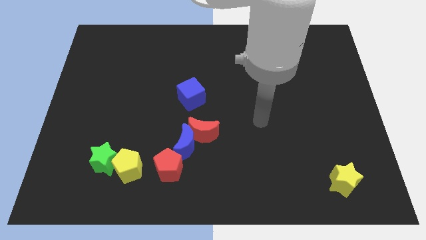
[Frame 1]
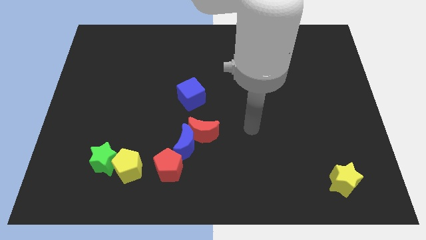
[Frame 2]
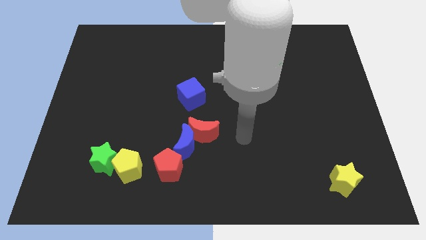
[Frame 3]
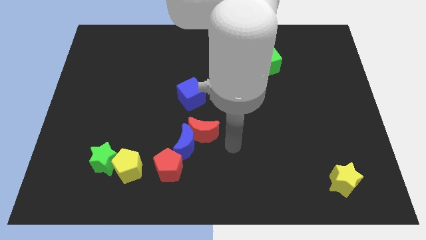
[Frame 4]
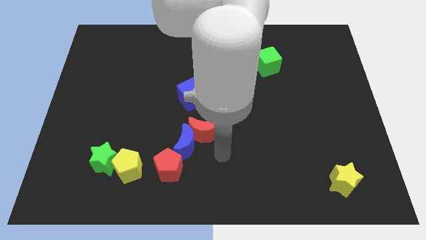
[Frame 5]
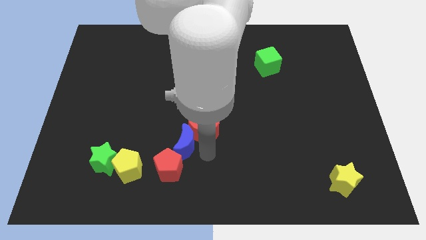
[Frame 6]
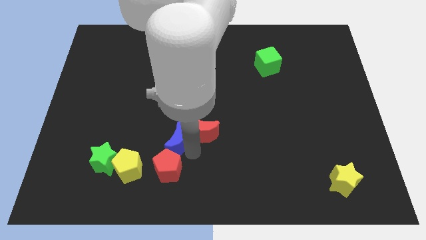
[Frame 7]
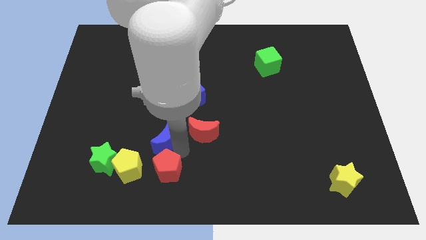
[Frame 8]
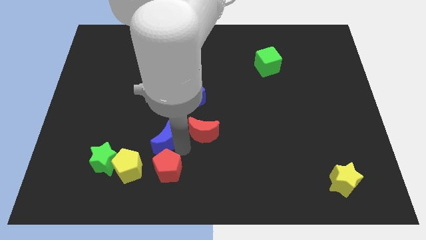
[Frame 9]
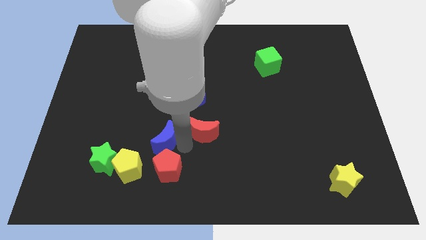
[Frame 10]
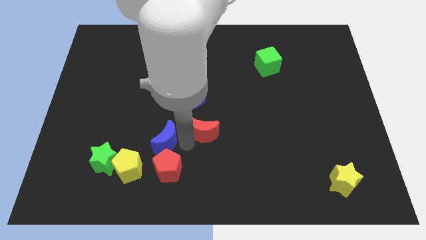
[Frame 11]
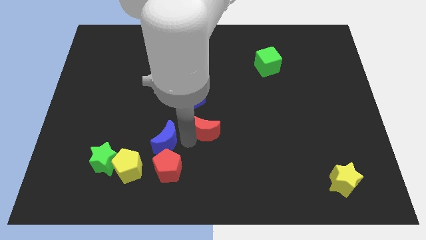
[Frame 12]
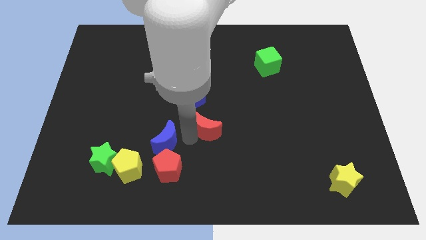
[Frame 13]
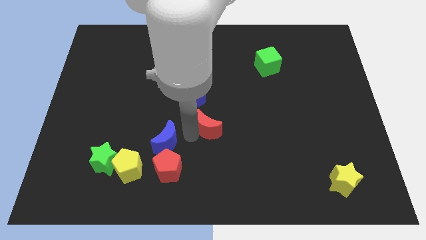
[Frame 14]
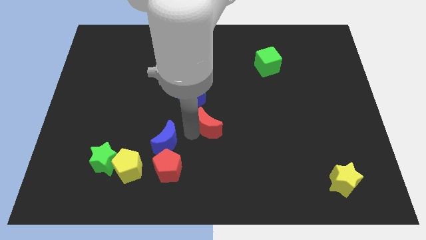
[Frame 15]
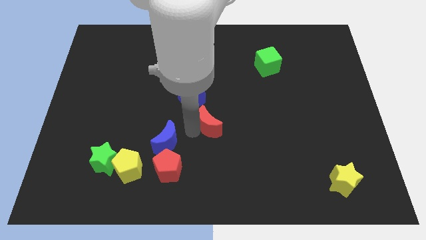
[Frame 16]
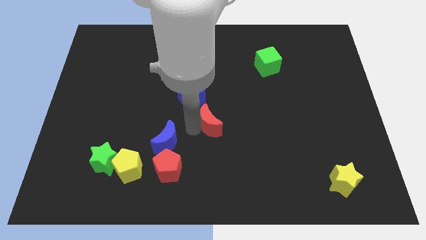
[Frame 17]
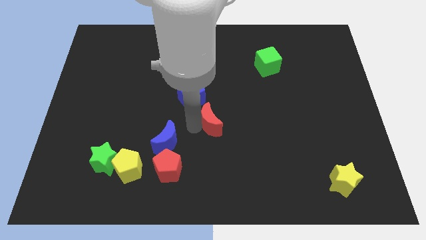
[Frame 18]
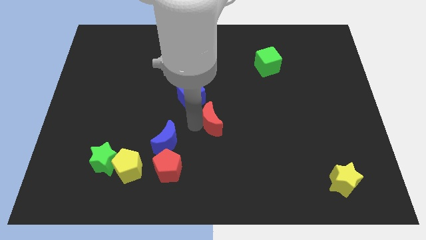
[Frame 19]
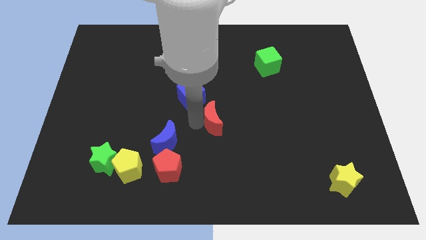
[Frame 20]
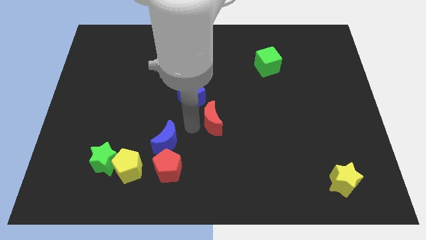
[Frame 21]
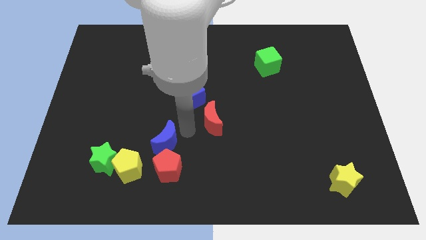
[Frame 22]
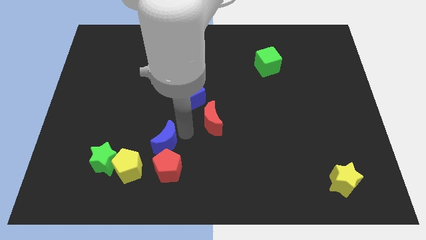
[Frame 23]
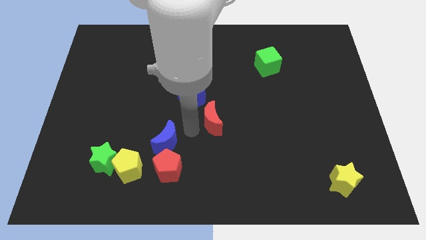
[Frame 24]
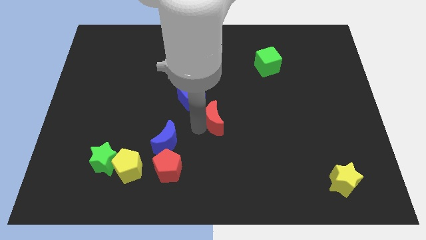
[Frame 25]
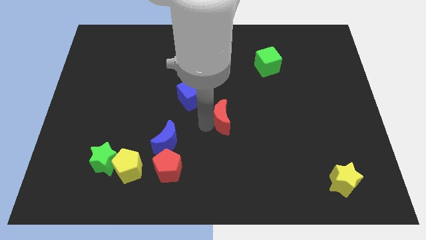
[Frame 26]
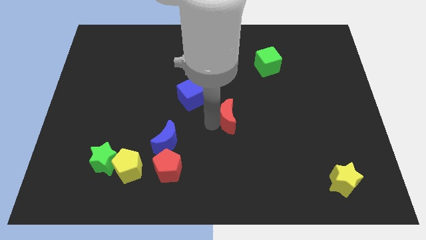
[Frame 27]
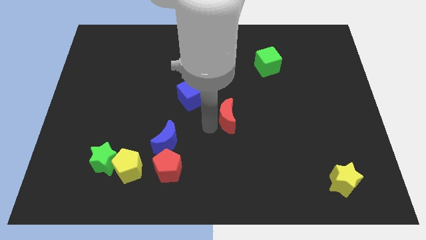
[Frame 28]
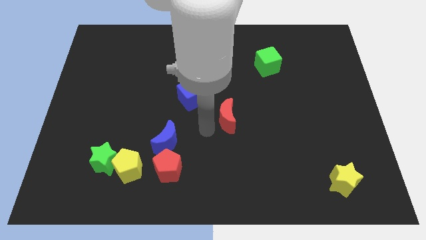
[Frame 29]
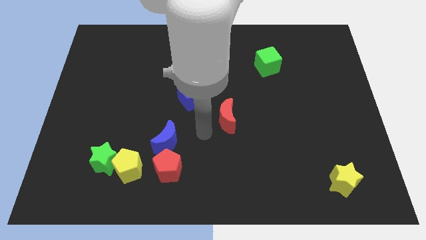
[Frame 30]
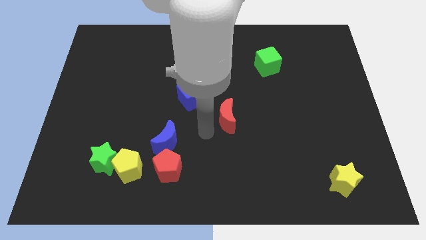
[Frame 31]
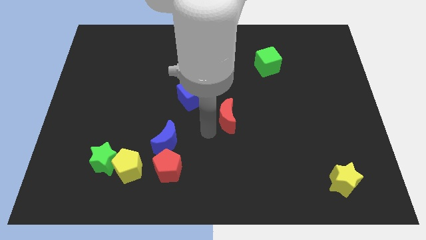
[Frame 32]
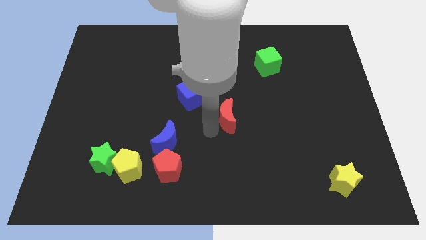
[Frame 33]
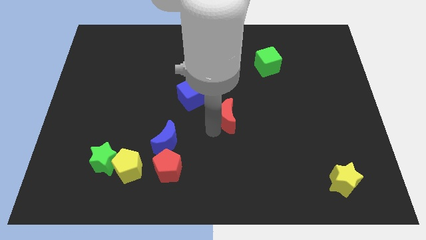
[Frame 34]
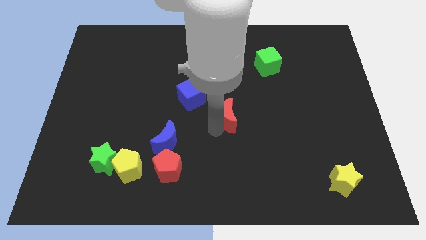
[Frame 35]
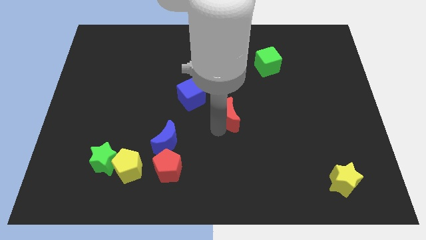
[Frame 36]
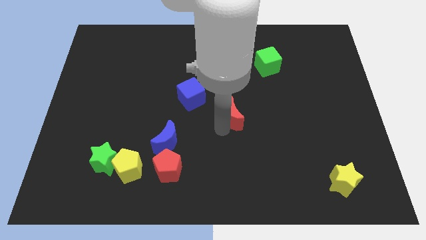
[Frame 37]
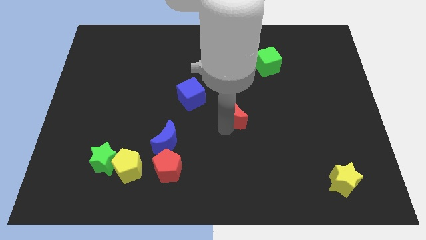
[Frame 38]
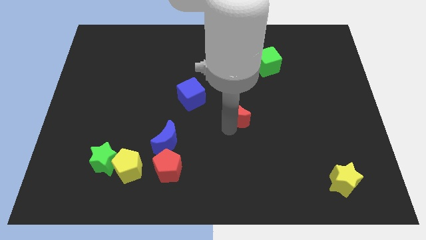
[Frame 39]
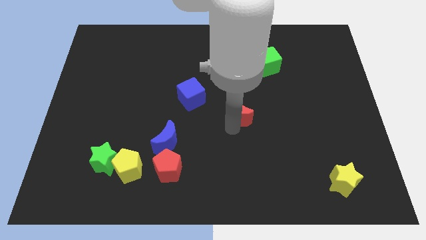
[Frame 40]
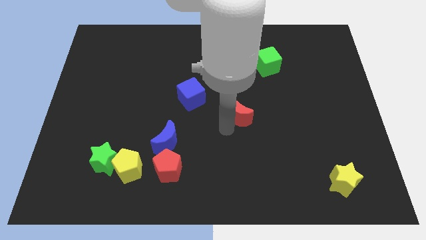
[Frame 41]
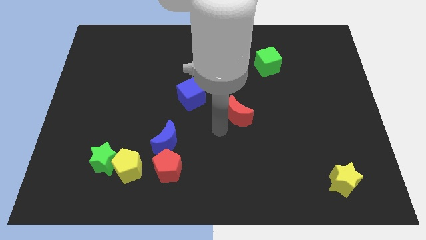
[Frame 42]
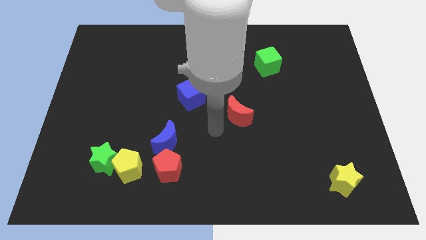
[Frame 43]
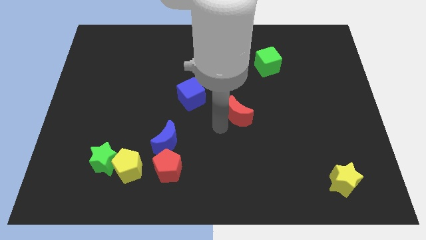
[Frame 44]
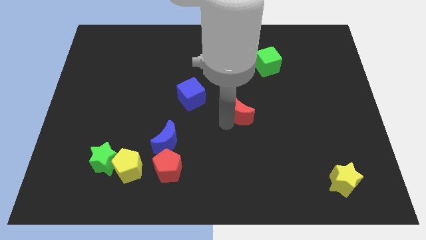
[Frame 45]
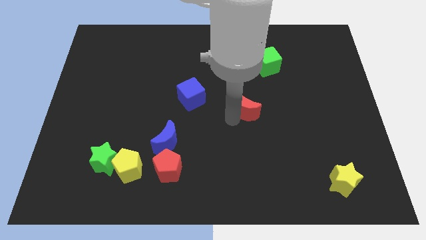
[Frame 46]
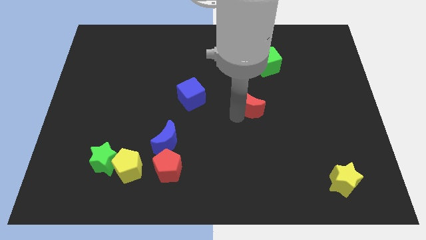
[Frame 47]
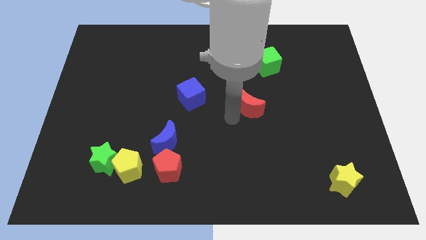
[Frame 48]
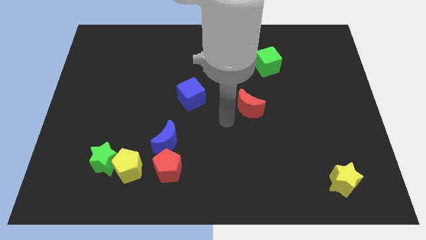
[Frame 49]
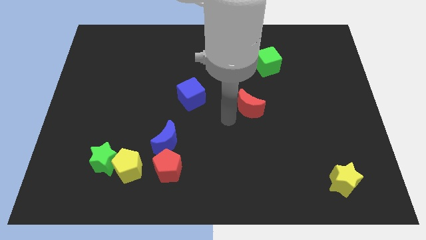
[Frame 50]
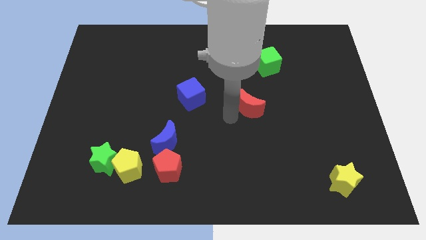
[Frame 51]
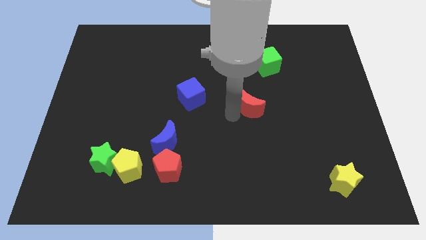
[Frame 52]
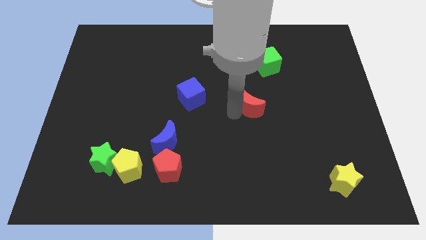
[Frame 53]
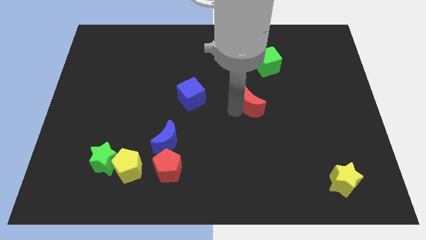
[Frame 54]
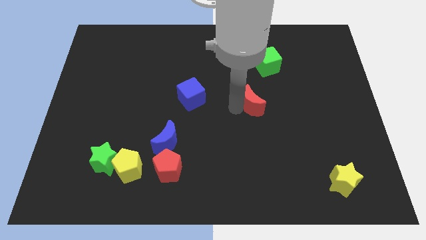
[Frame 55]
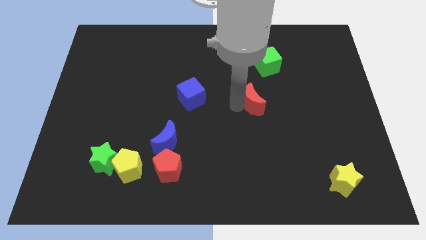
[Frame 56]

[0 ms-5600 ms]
move the red moon below the green cube
